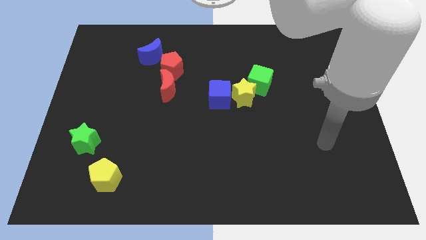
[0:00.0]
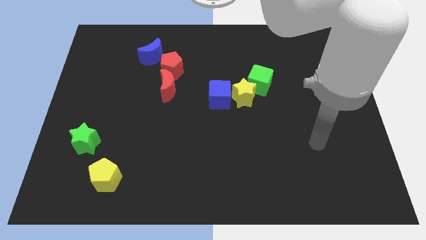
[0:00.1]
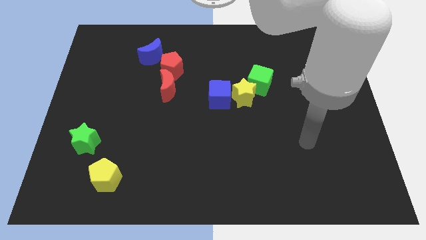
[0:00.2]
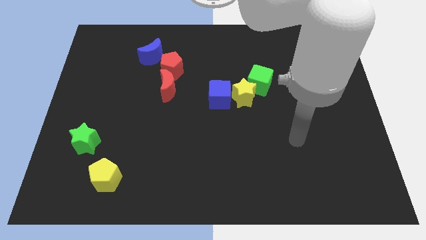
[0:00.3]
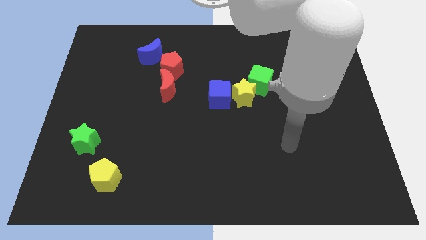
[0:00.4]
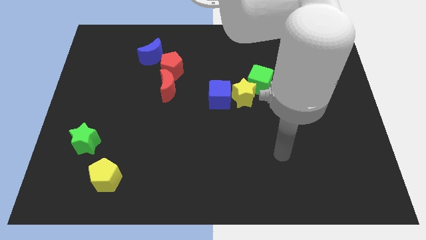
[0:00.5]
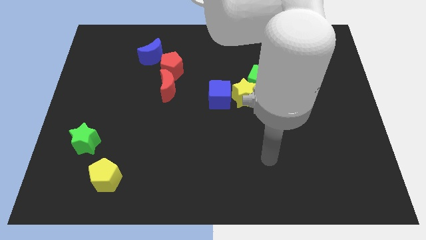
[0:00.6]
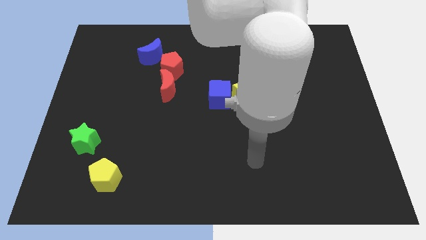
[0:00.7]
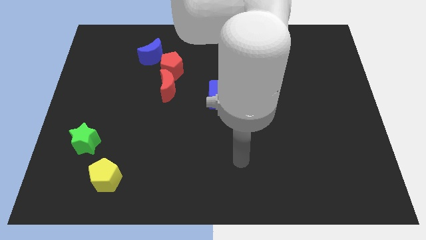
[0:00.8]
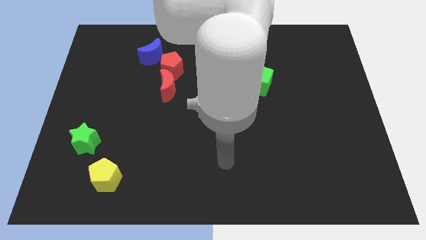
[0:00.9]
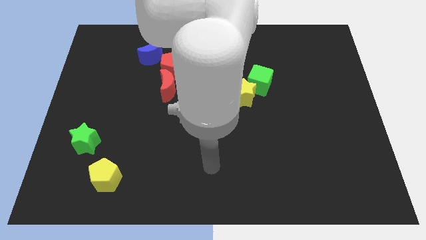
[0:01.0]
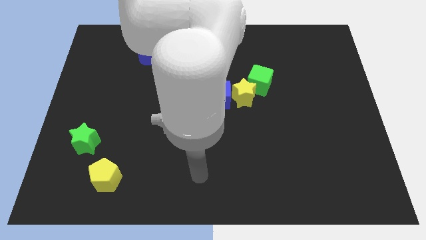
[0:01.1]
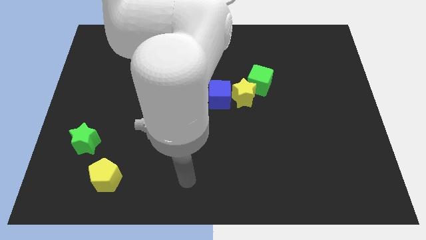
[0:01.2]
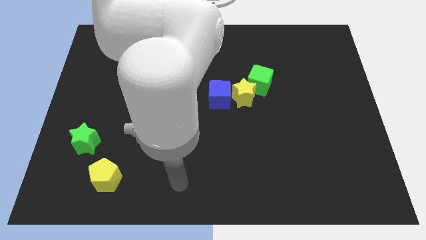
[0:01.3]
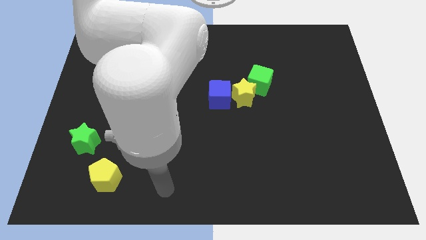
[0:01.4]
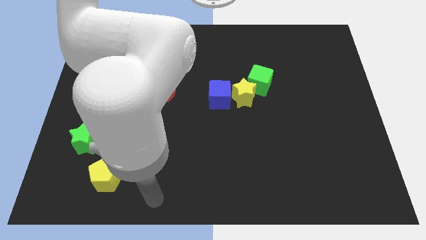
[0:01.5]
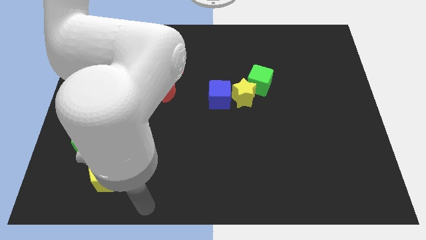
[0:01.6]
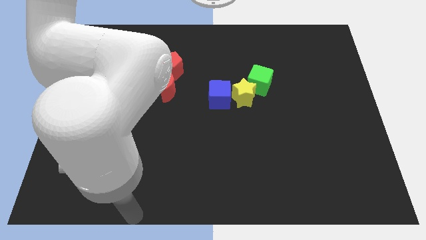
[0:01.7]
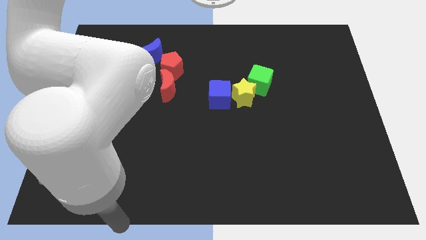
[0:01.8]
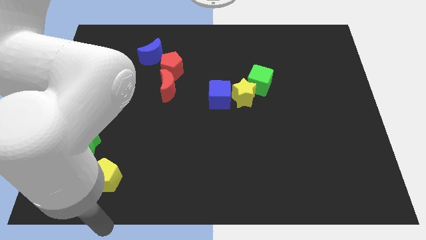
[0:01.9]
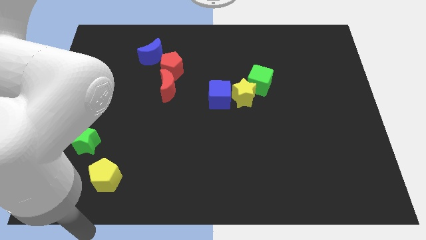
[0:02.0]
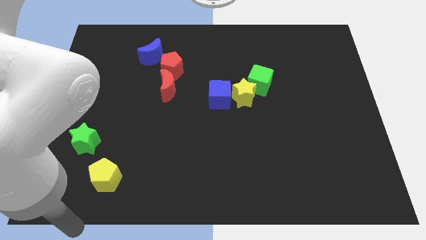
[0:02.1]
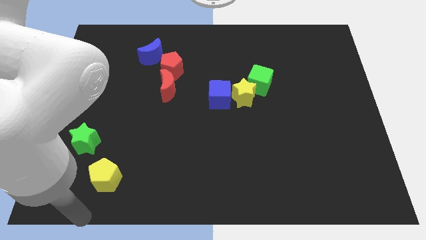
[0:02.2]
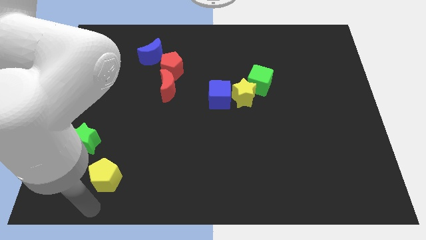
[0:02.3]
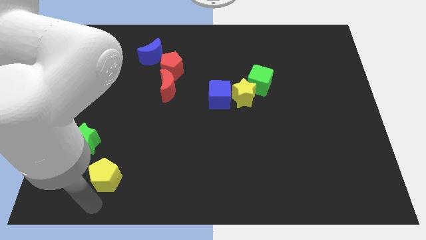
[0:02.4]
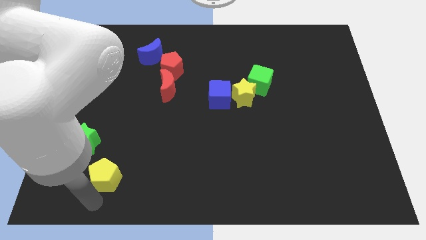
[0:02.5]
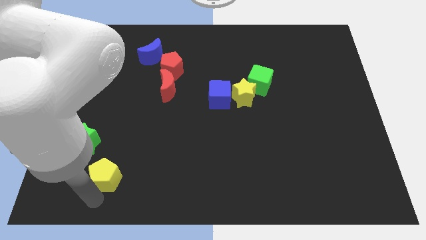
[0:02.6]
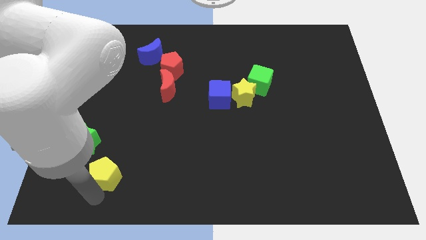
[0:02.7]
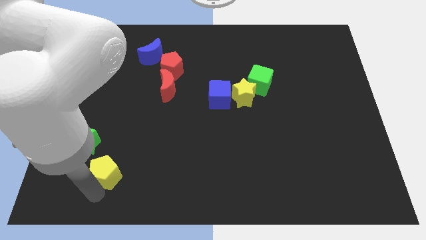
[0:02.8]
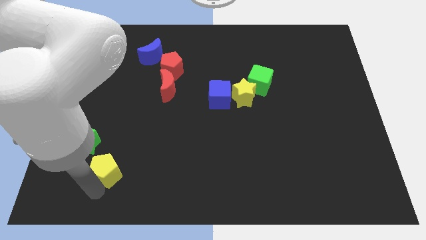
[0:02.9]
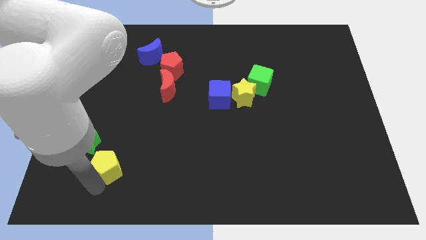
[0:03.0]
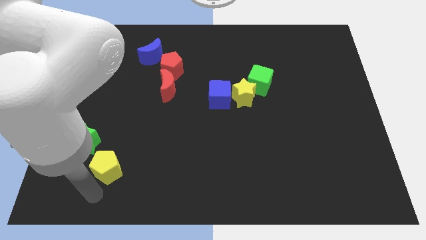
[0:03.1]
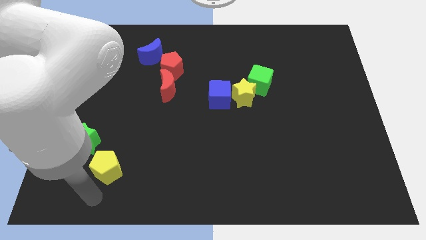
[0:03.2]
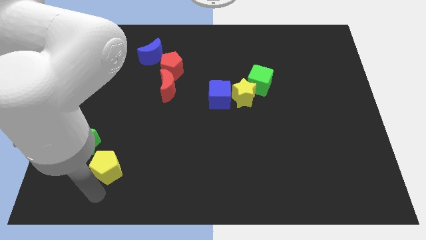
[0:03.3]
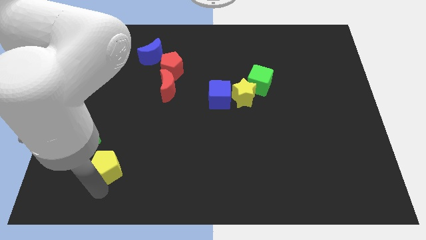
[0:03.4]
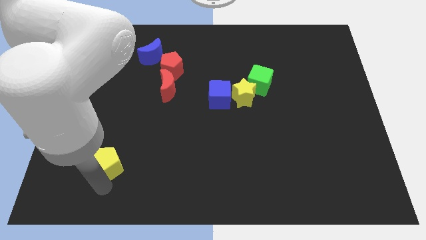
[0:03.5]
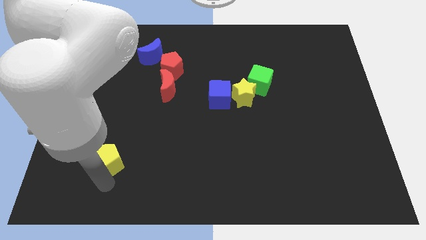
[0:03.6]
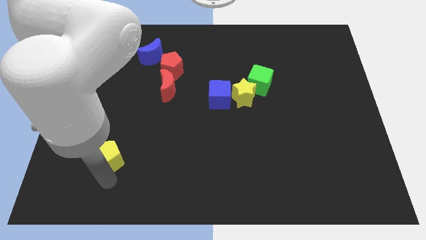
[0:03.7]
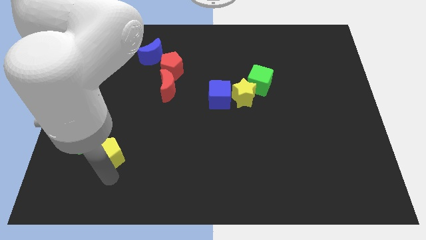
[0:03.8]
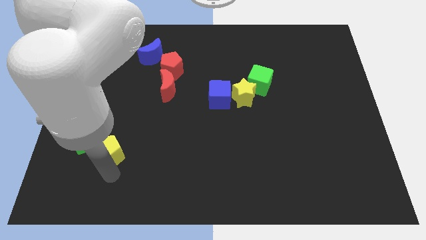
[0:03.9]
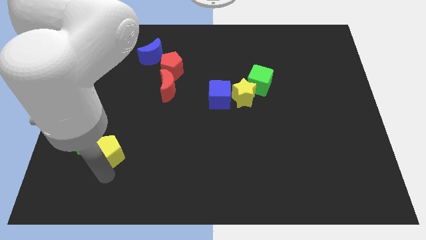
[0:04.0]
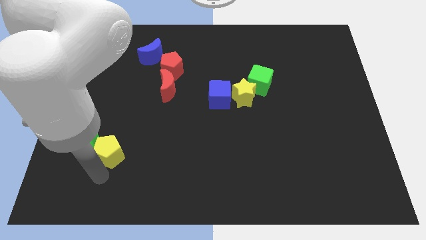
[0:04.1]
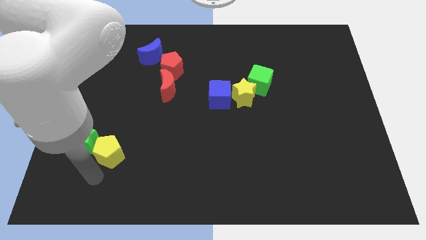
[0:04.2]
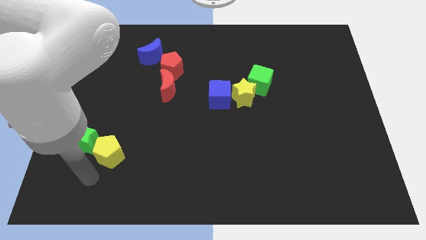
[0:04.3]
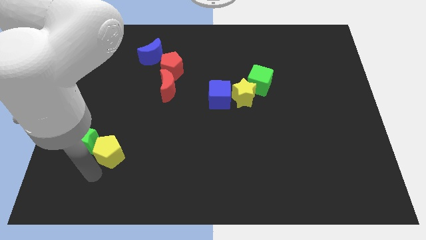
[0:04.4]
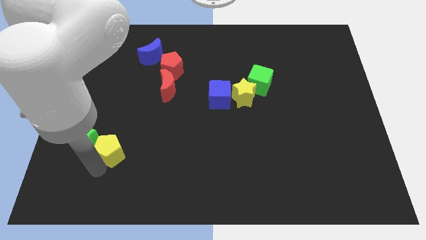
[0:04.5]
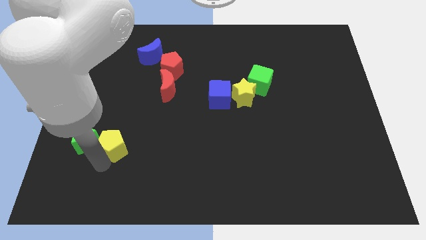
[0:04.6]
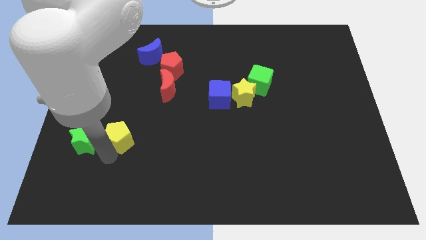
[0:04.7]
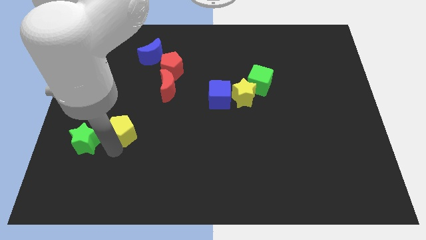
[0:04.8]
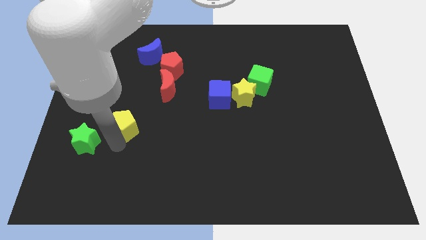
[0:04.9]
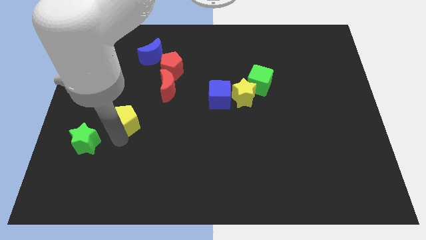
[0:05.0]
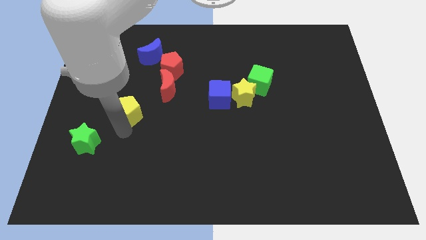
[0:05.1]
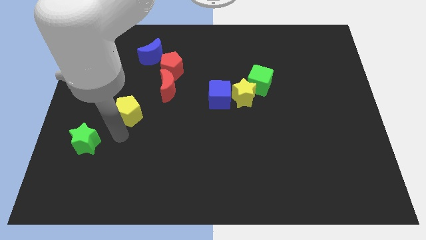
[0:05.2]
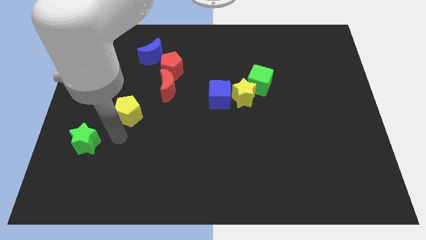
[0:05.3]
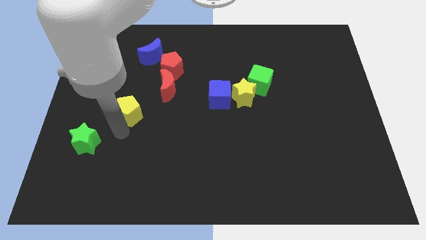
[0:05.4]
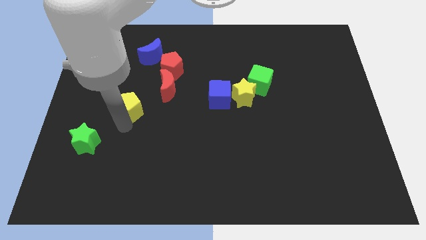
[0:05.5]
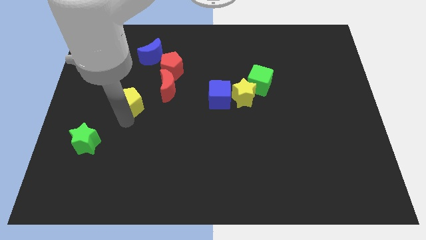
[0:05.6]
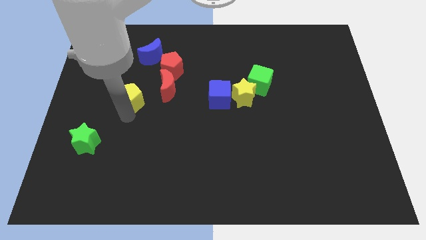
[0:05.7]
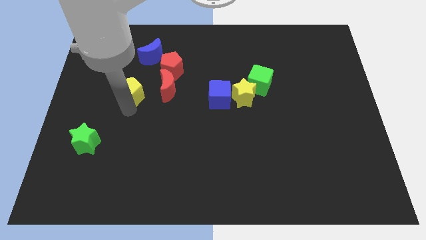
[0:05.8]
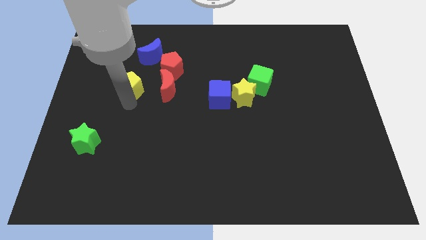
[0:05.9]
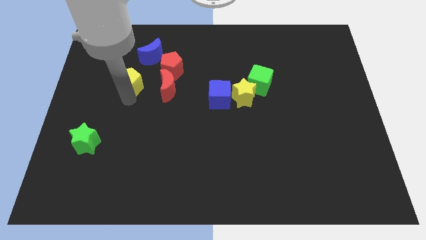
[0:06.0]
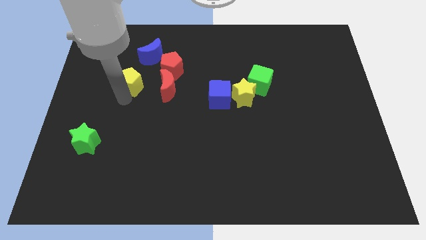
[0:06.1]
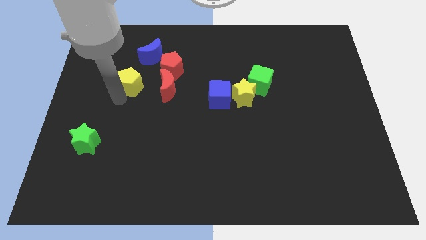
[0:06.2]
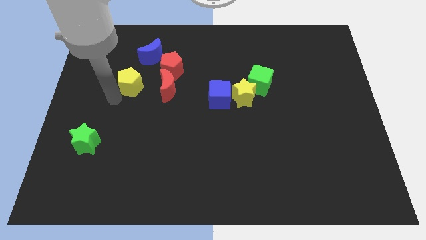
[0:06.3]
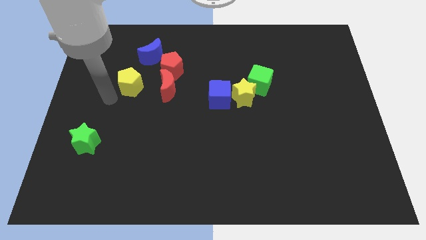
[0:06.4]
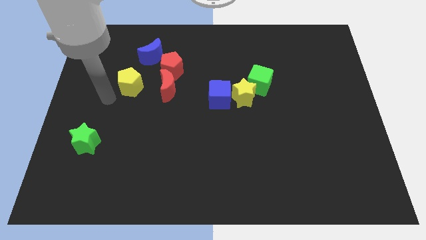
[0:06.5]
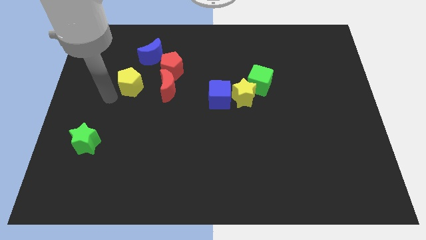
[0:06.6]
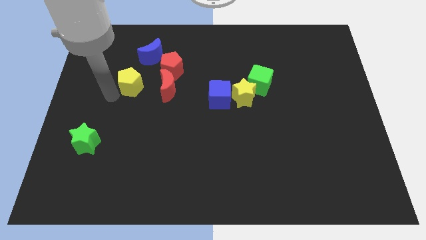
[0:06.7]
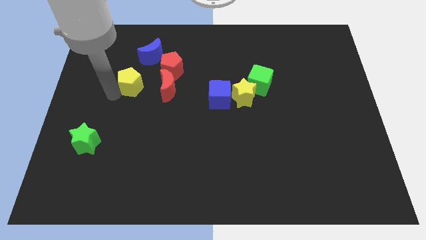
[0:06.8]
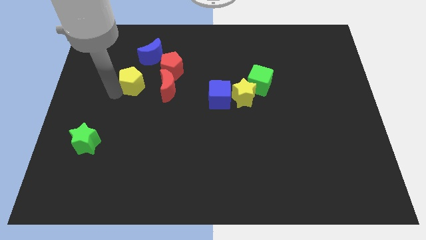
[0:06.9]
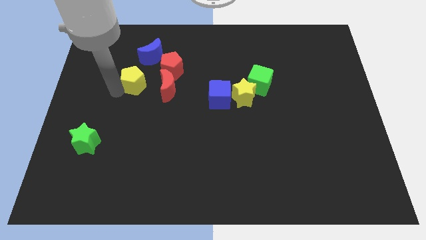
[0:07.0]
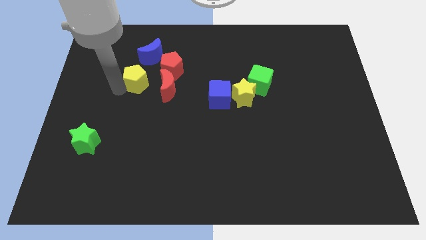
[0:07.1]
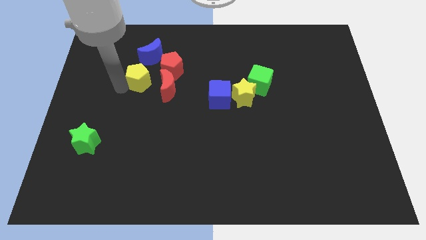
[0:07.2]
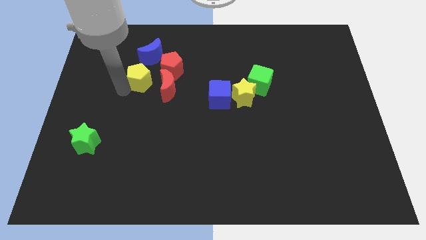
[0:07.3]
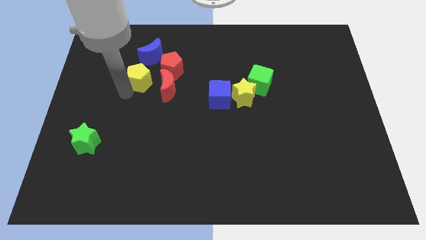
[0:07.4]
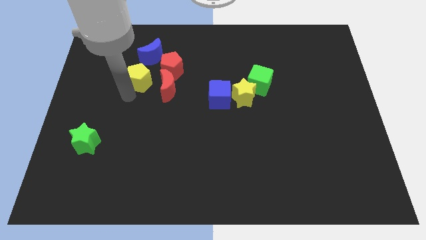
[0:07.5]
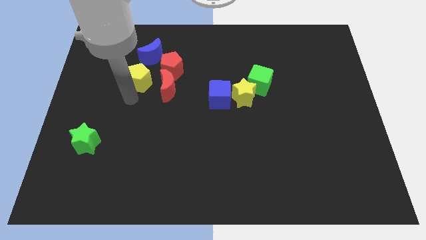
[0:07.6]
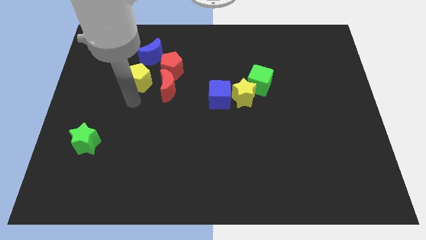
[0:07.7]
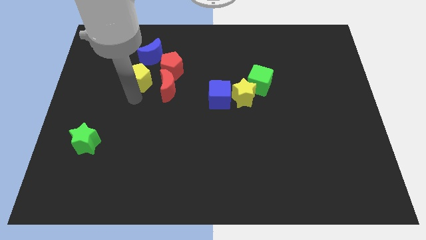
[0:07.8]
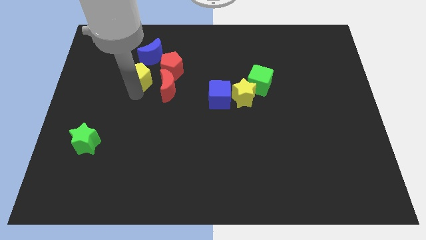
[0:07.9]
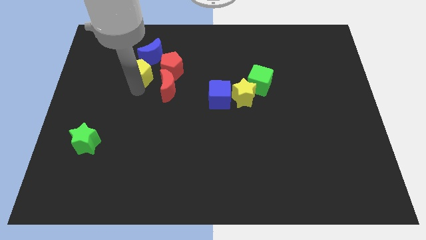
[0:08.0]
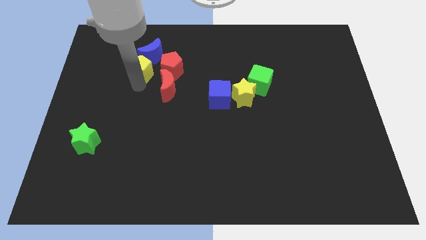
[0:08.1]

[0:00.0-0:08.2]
move the yellow pentagon next to the blue moon

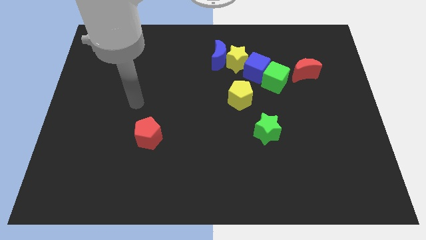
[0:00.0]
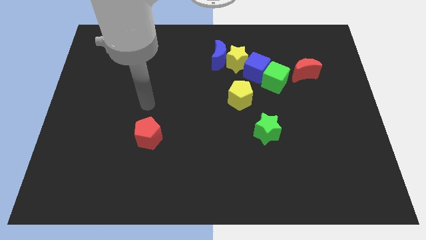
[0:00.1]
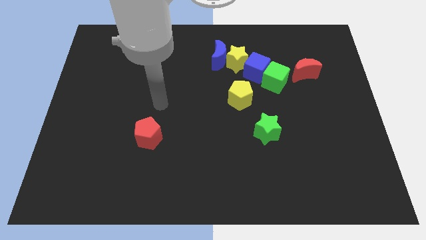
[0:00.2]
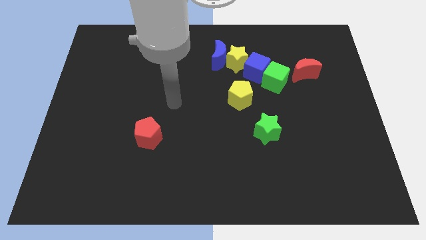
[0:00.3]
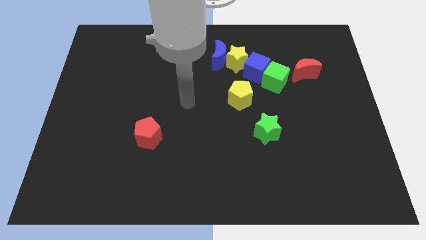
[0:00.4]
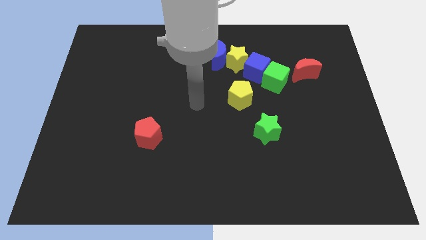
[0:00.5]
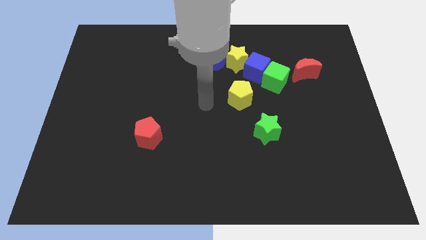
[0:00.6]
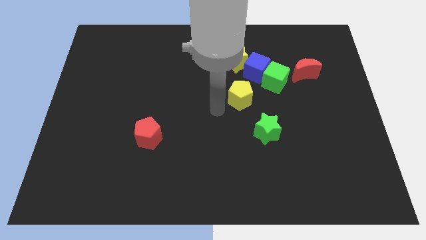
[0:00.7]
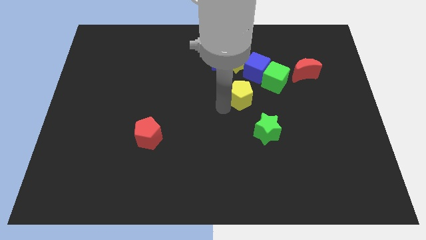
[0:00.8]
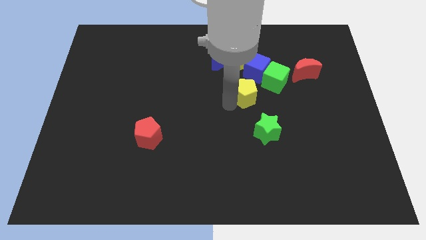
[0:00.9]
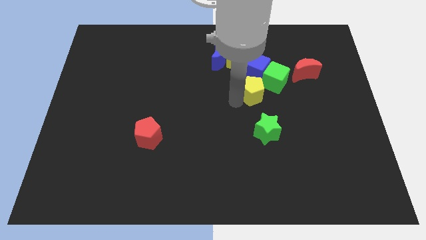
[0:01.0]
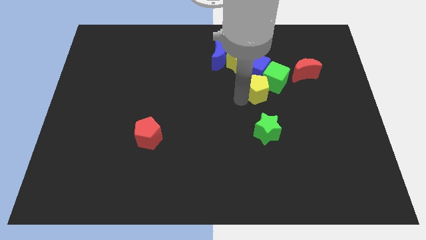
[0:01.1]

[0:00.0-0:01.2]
slide the yellow pentagon next to the green cube
